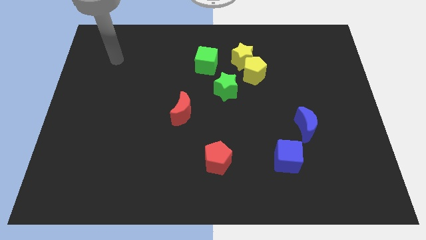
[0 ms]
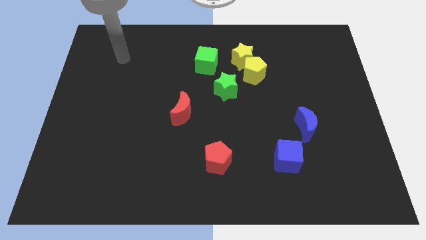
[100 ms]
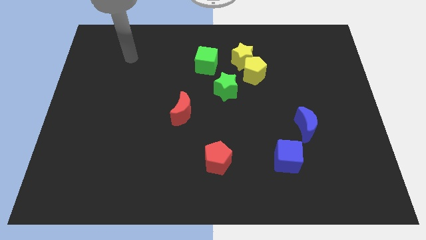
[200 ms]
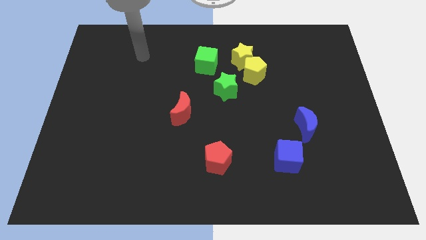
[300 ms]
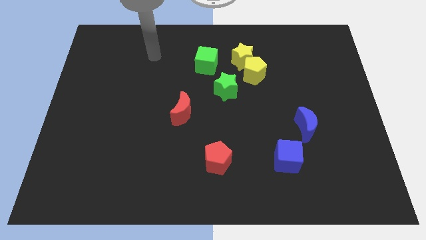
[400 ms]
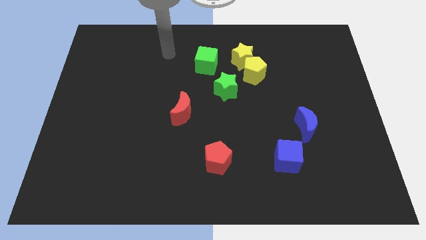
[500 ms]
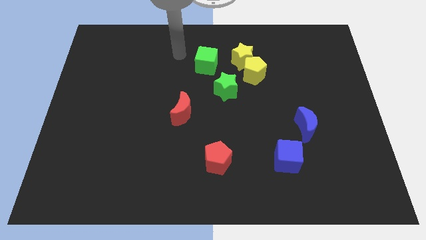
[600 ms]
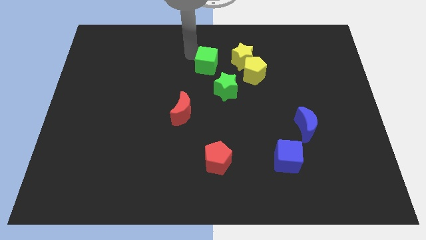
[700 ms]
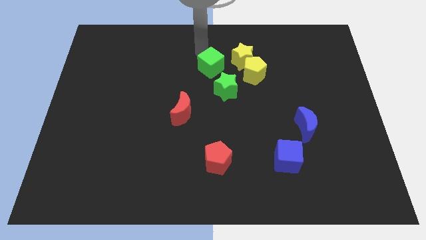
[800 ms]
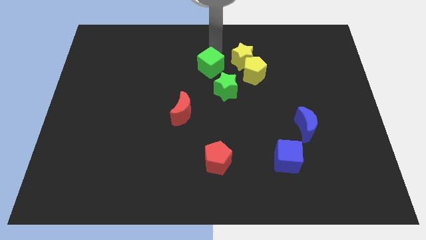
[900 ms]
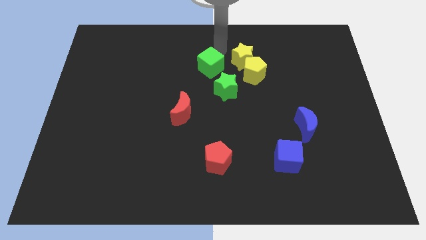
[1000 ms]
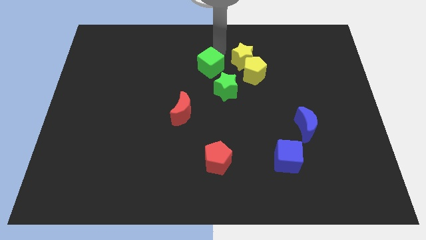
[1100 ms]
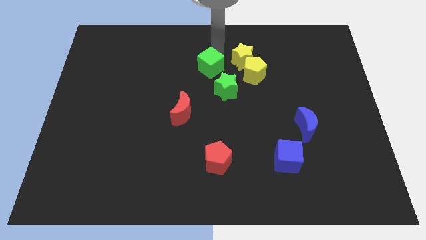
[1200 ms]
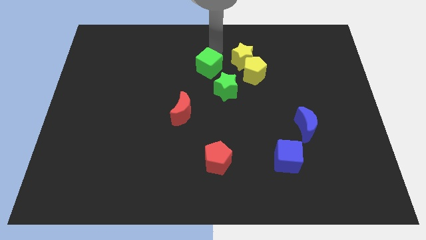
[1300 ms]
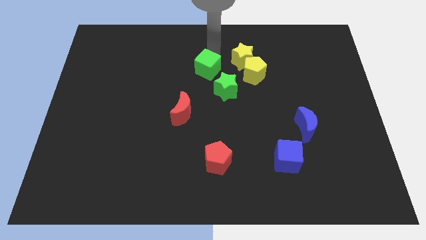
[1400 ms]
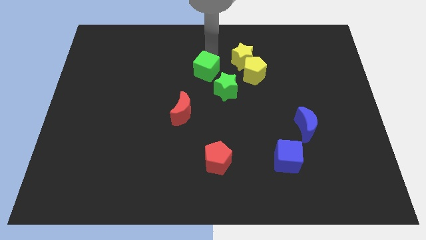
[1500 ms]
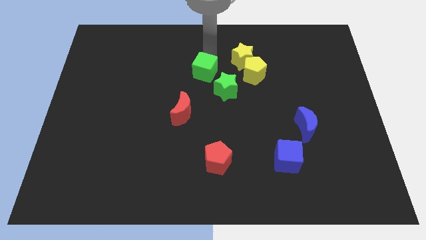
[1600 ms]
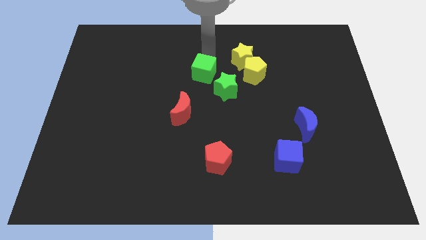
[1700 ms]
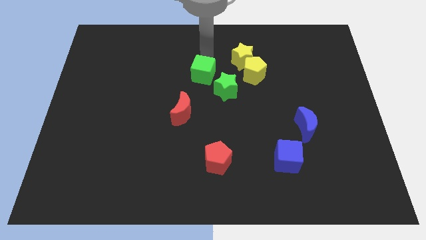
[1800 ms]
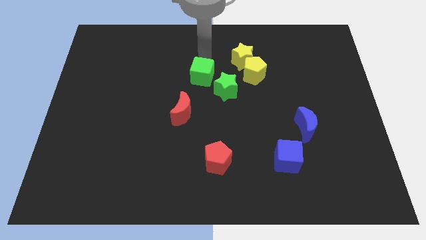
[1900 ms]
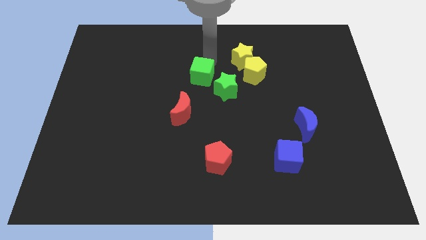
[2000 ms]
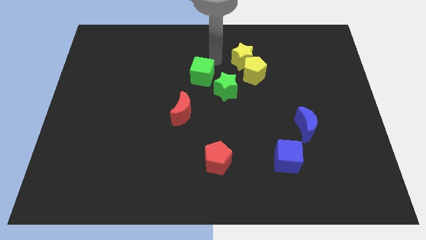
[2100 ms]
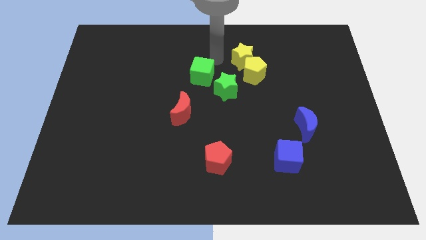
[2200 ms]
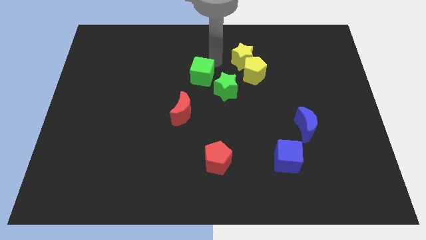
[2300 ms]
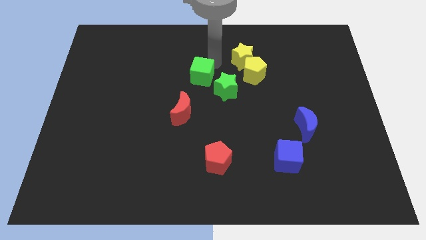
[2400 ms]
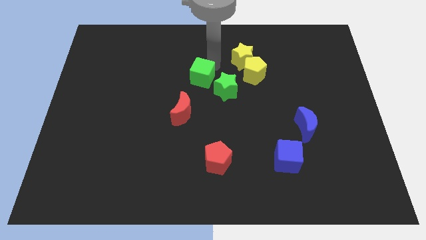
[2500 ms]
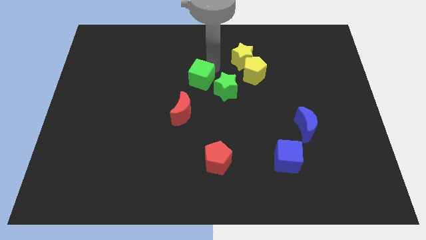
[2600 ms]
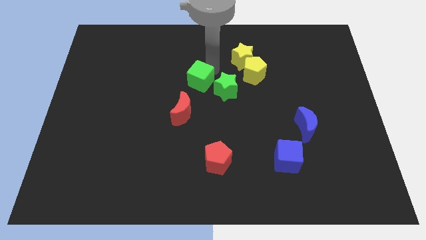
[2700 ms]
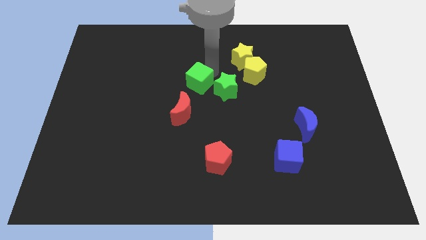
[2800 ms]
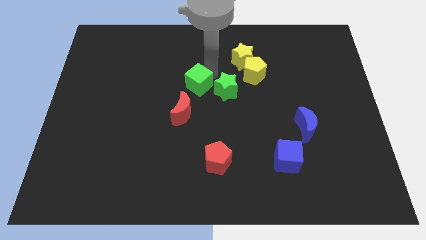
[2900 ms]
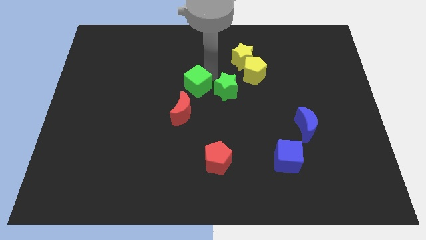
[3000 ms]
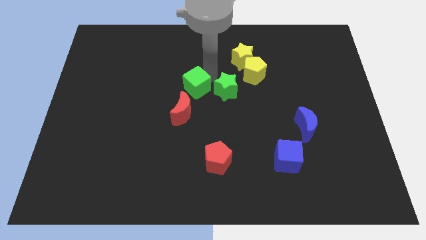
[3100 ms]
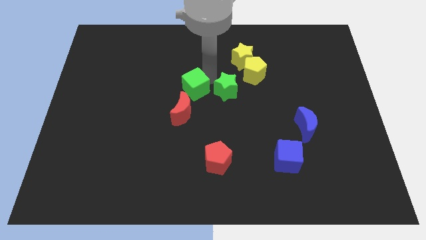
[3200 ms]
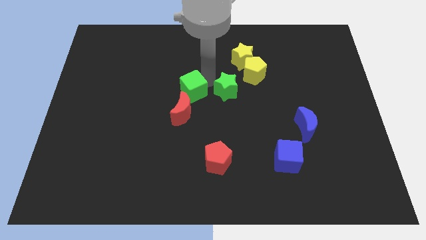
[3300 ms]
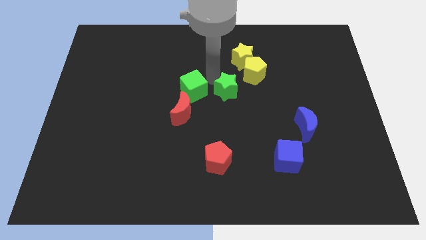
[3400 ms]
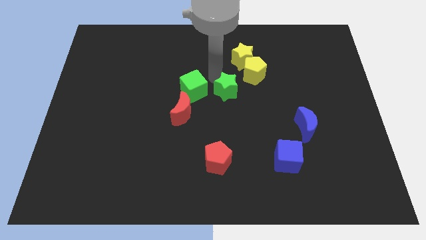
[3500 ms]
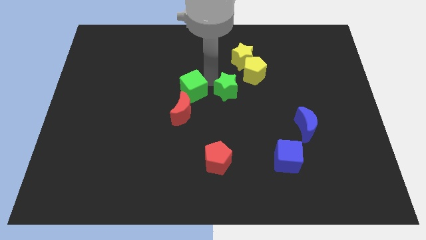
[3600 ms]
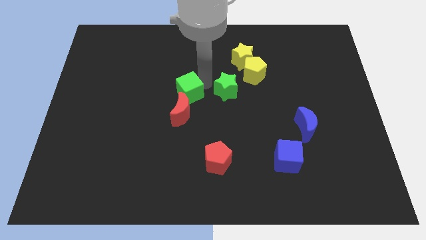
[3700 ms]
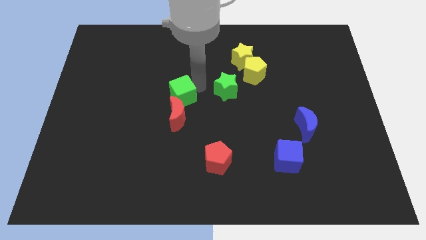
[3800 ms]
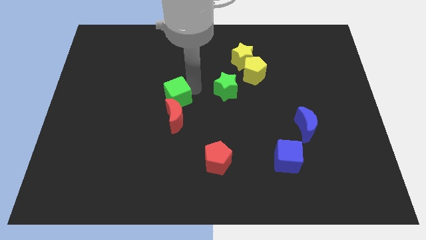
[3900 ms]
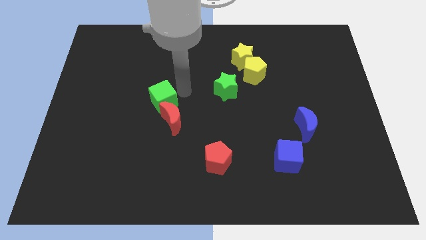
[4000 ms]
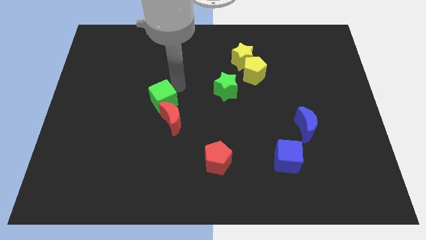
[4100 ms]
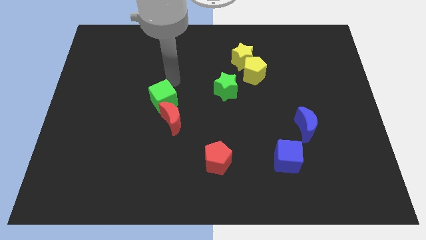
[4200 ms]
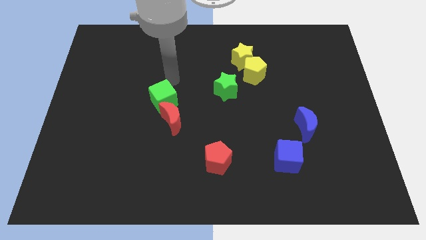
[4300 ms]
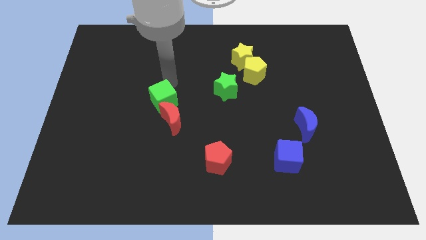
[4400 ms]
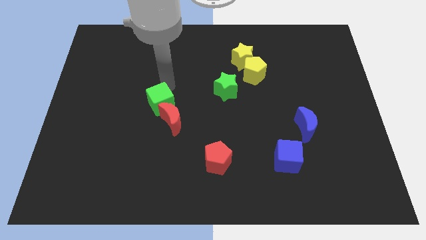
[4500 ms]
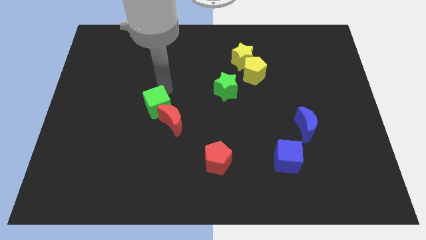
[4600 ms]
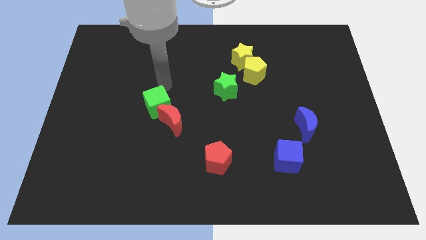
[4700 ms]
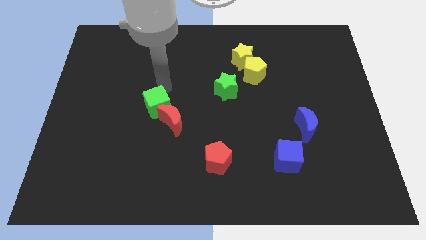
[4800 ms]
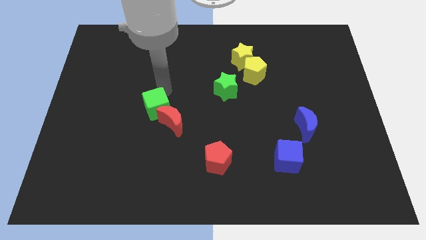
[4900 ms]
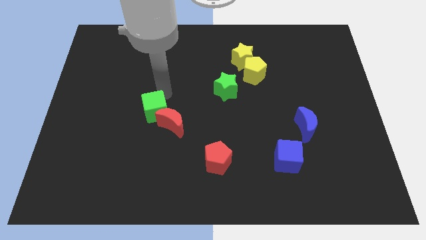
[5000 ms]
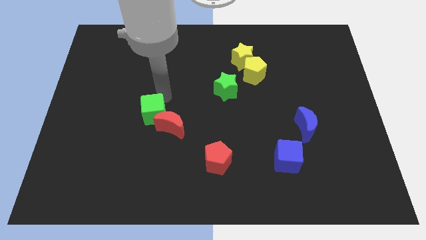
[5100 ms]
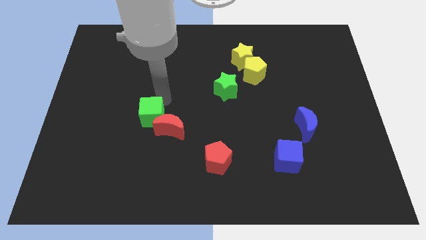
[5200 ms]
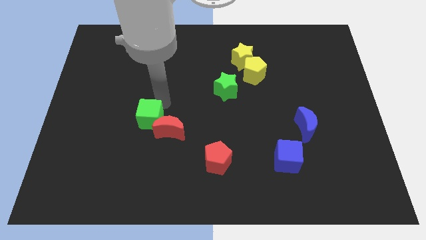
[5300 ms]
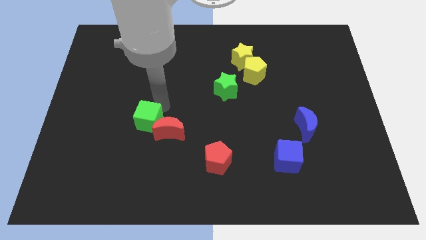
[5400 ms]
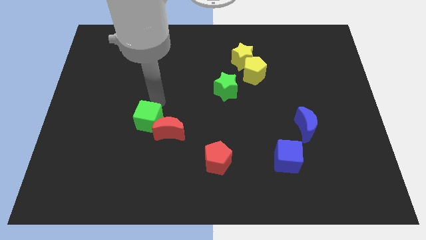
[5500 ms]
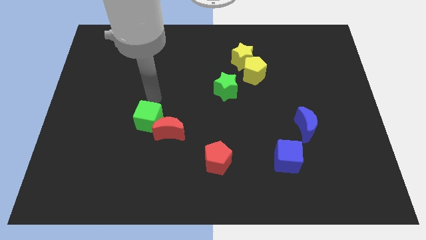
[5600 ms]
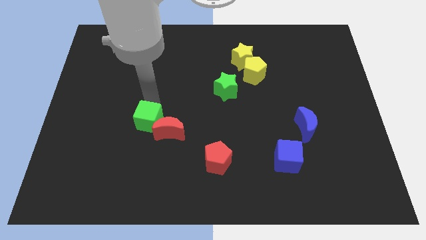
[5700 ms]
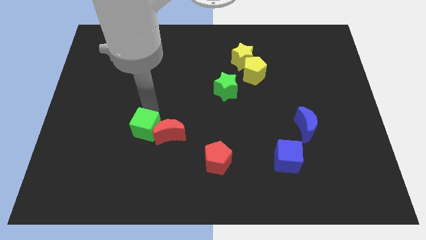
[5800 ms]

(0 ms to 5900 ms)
put the green cube diagonally down and to the left of the red moon

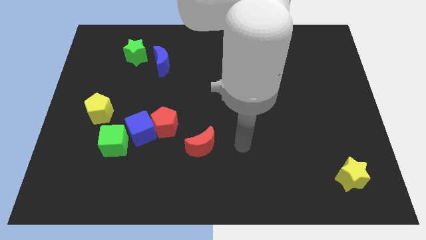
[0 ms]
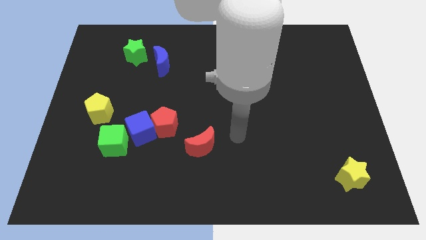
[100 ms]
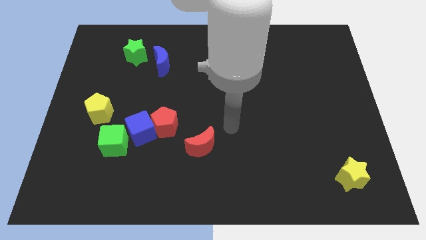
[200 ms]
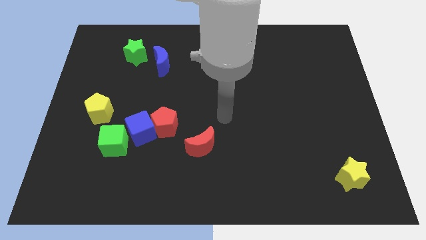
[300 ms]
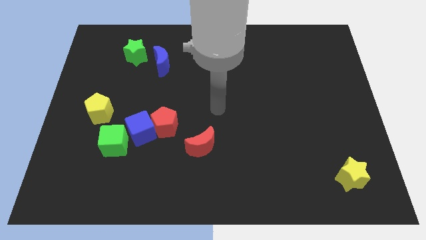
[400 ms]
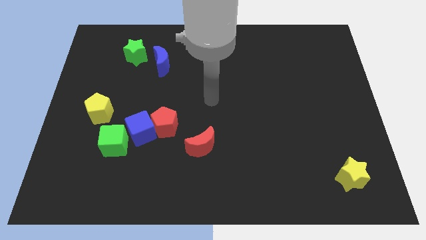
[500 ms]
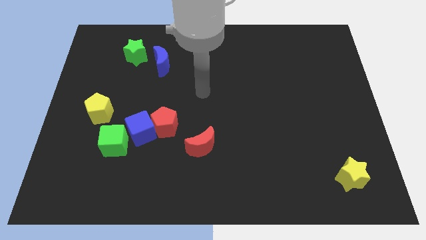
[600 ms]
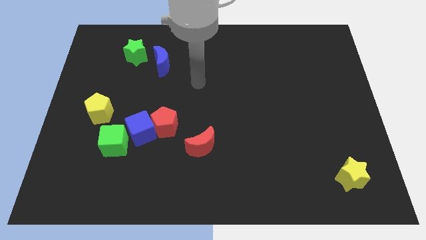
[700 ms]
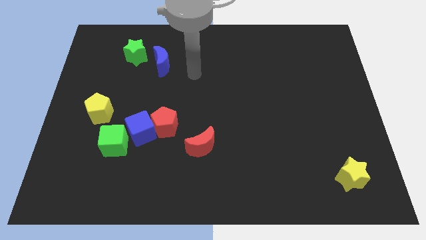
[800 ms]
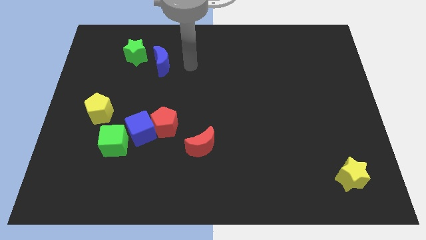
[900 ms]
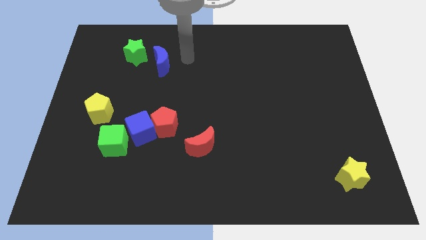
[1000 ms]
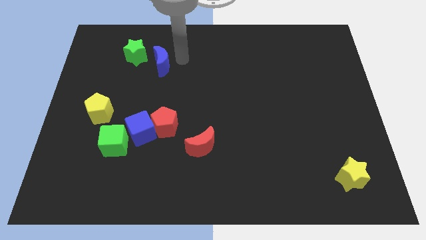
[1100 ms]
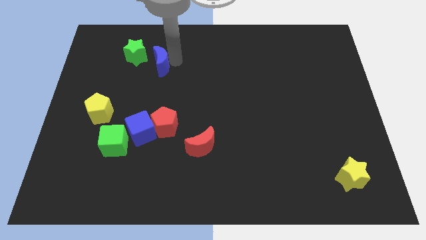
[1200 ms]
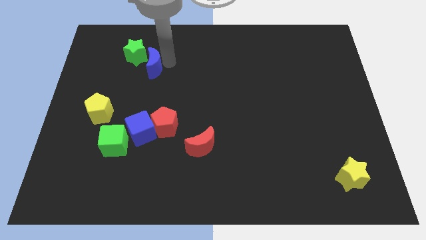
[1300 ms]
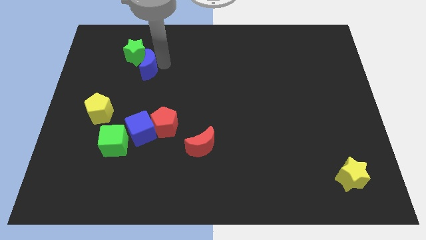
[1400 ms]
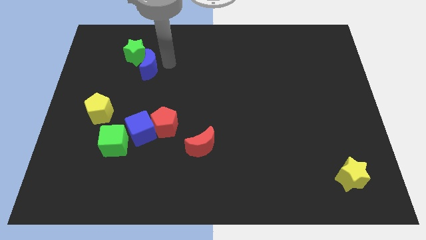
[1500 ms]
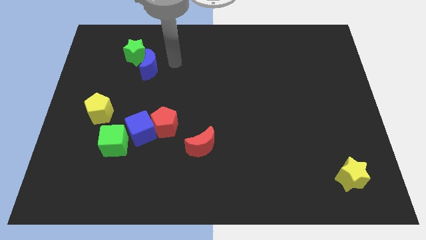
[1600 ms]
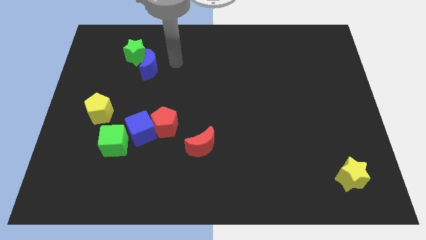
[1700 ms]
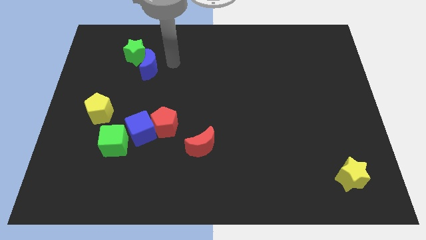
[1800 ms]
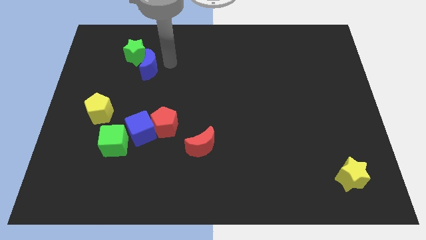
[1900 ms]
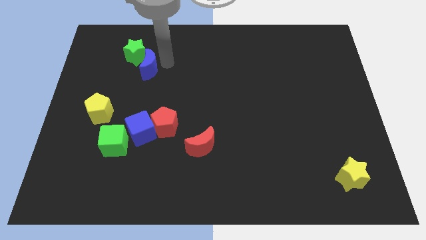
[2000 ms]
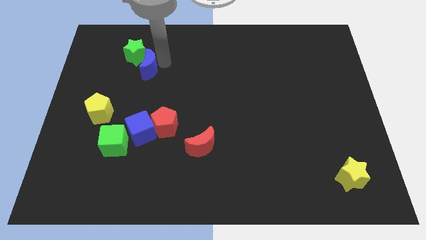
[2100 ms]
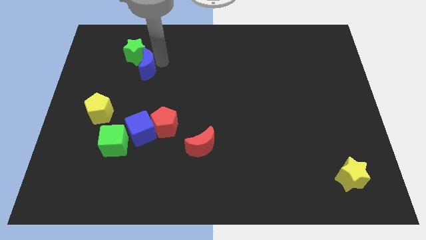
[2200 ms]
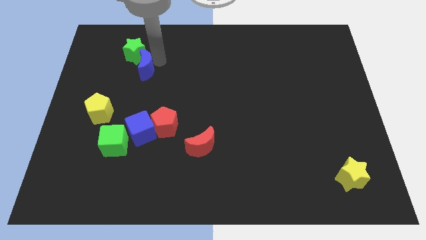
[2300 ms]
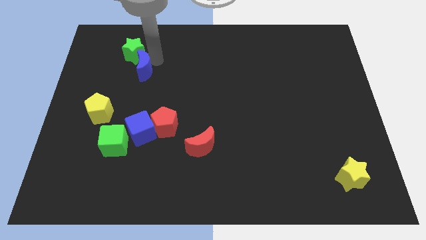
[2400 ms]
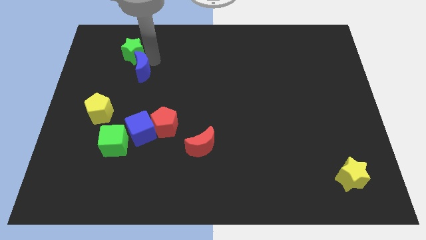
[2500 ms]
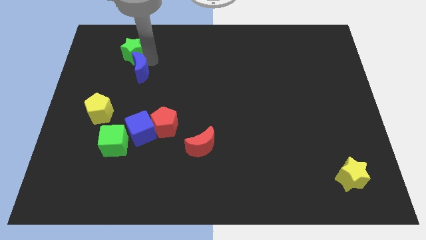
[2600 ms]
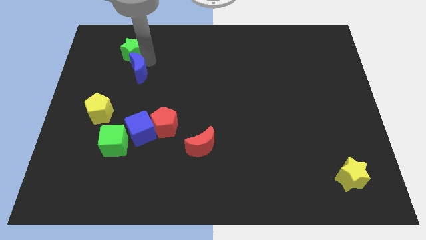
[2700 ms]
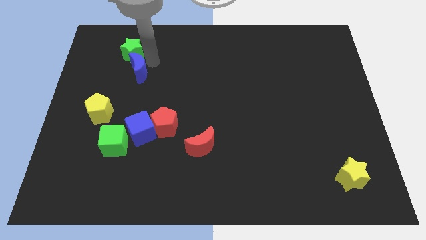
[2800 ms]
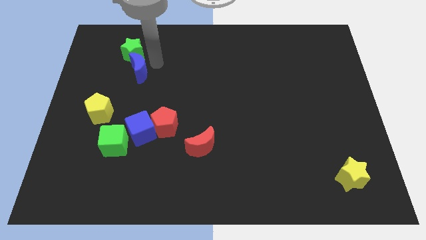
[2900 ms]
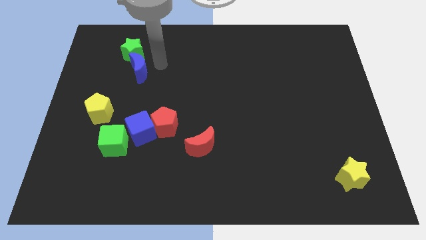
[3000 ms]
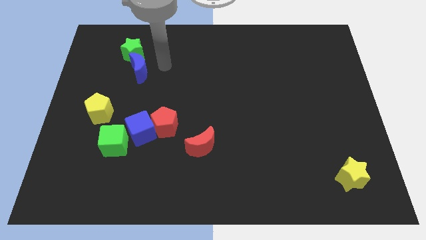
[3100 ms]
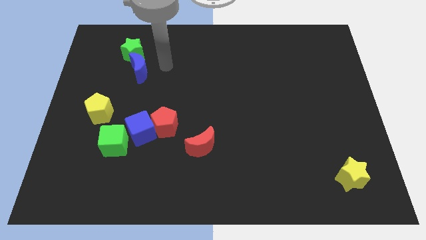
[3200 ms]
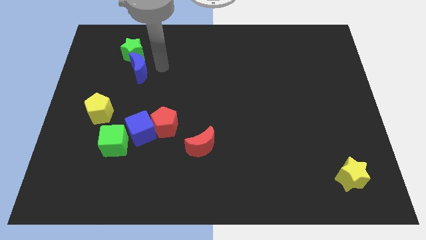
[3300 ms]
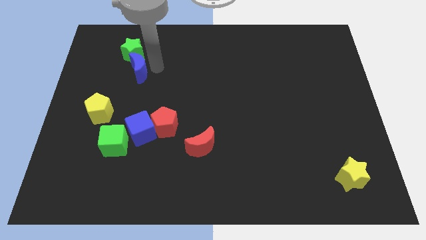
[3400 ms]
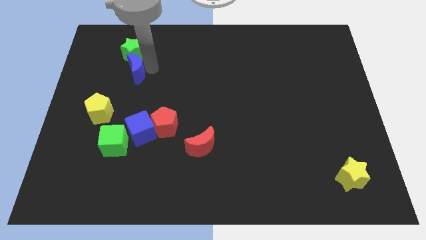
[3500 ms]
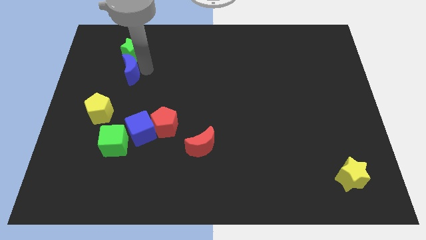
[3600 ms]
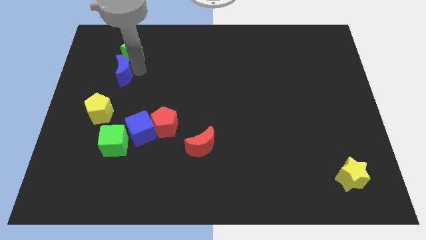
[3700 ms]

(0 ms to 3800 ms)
put the blue moon to the top of the yellow pentagon
